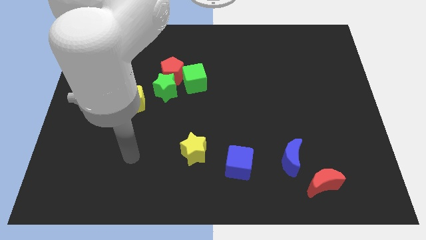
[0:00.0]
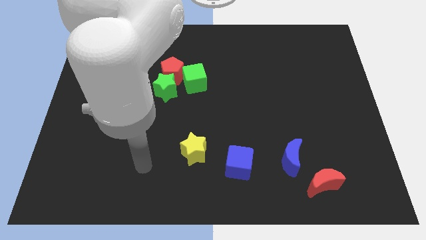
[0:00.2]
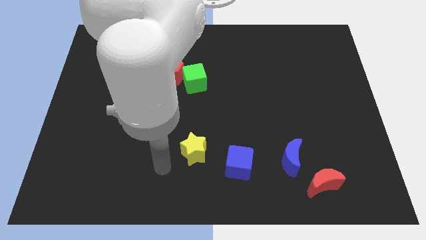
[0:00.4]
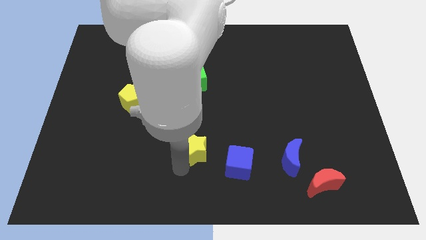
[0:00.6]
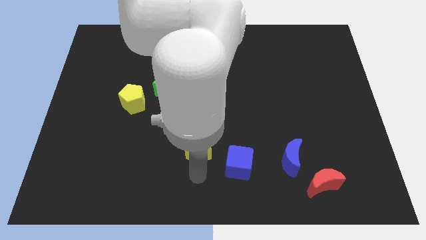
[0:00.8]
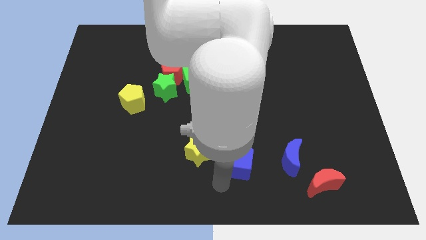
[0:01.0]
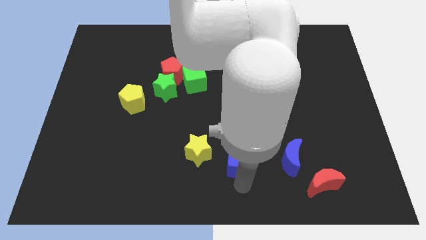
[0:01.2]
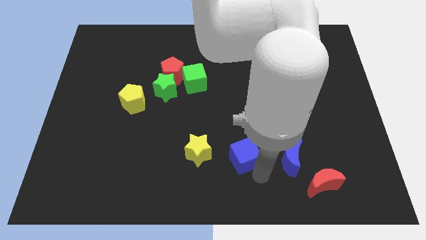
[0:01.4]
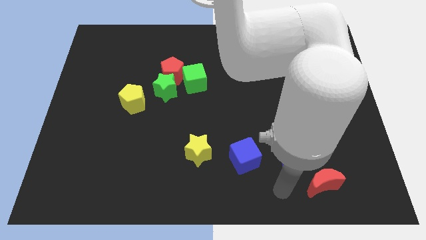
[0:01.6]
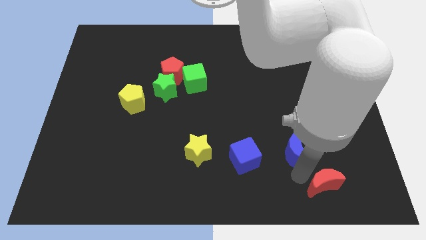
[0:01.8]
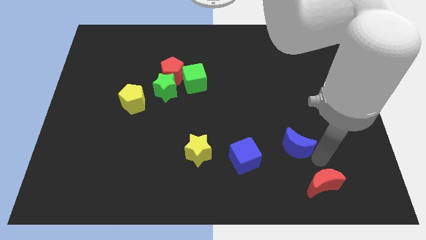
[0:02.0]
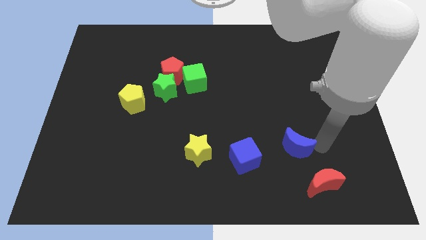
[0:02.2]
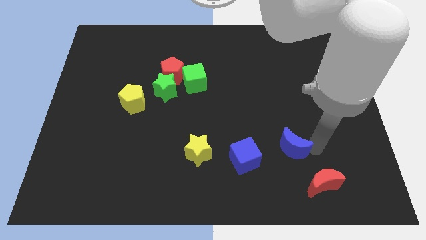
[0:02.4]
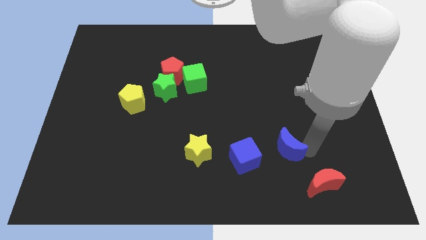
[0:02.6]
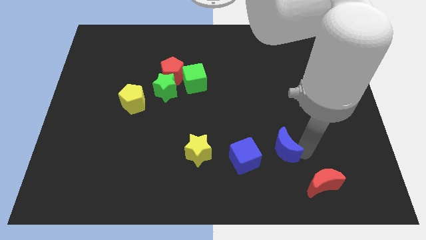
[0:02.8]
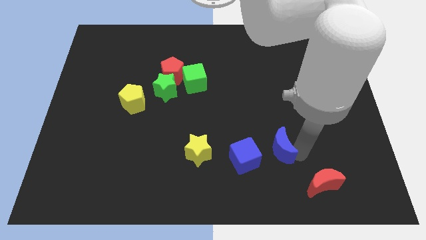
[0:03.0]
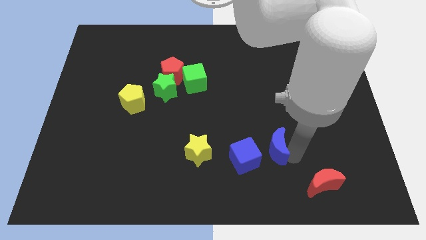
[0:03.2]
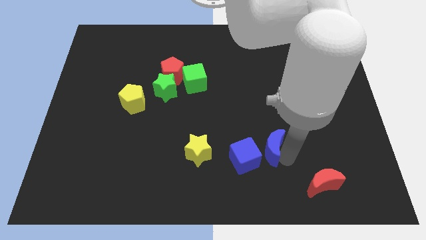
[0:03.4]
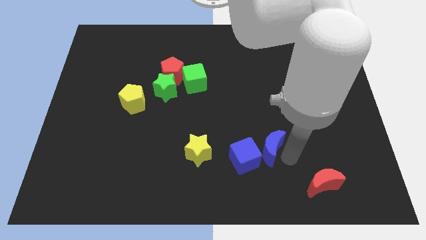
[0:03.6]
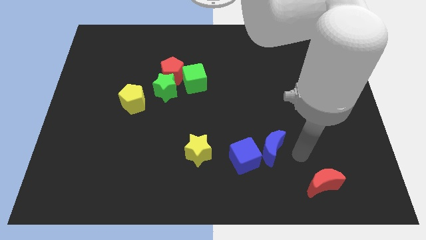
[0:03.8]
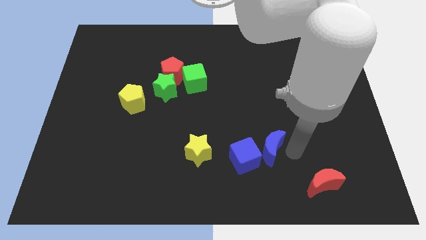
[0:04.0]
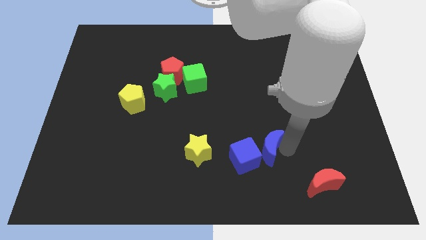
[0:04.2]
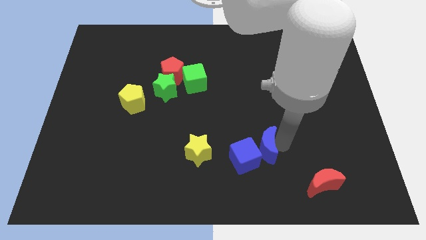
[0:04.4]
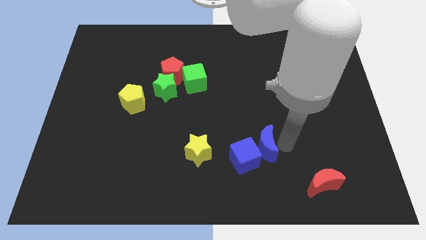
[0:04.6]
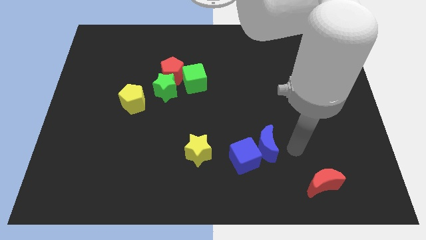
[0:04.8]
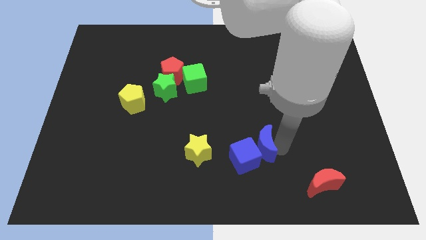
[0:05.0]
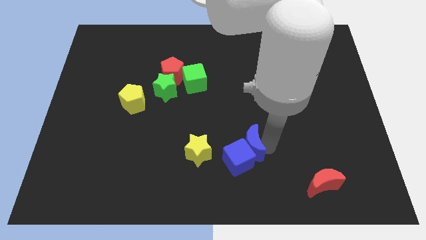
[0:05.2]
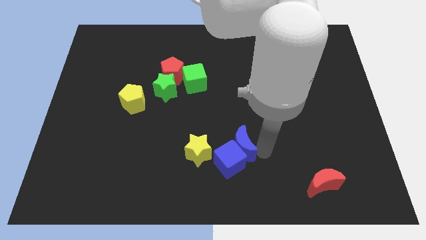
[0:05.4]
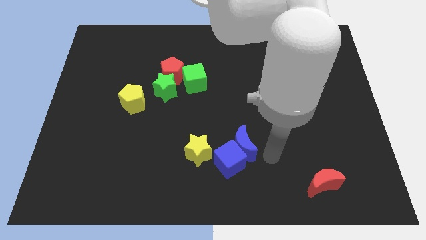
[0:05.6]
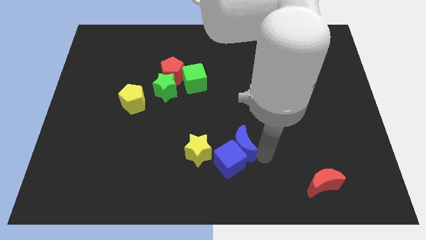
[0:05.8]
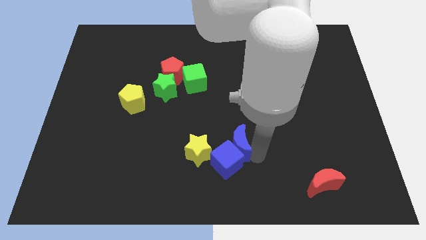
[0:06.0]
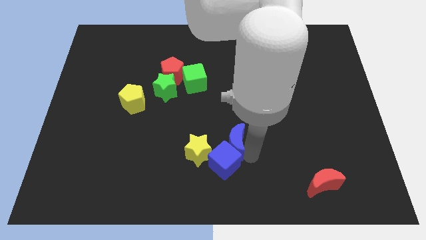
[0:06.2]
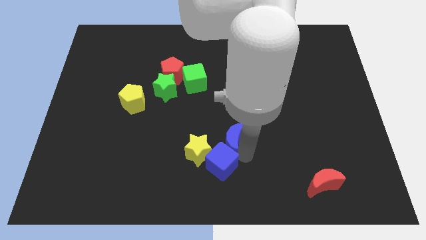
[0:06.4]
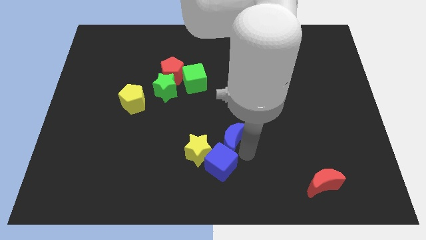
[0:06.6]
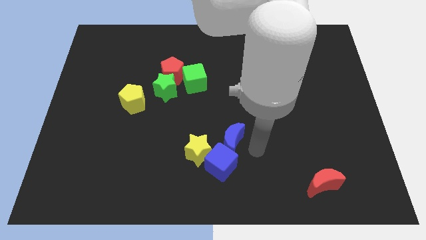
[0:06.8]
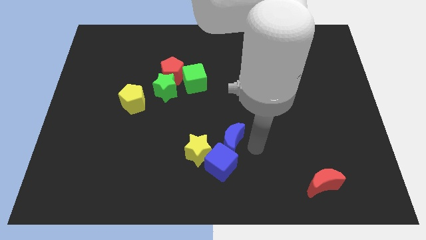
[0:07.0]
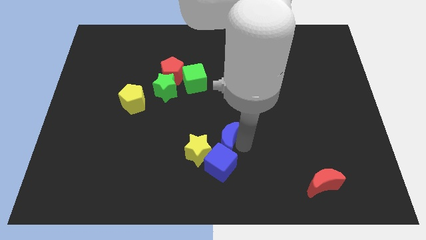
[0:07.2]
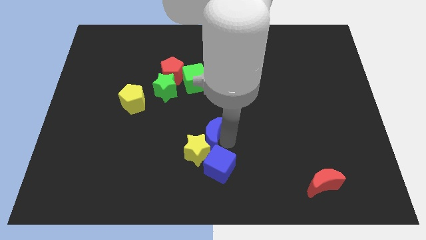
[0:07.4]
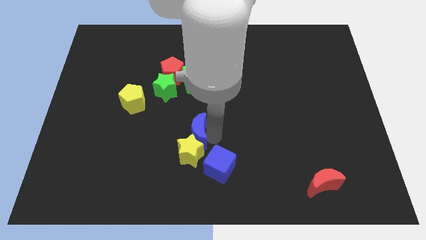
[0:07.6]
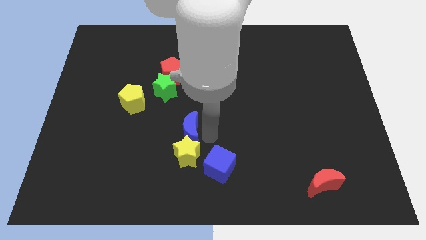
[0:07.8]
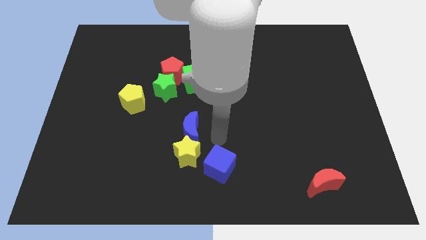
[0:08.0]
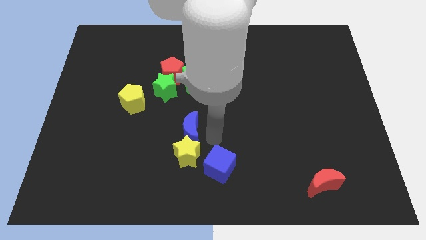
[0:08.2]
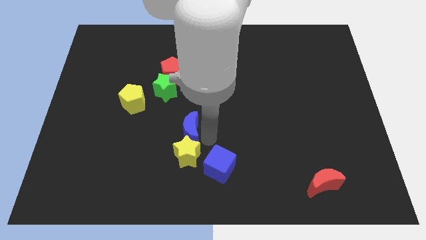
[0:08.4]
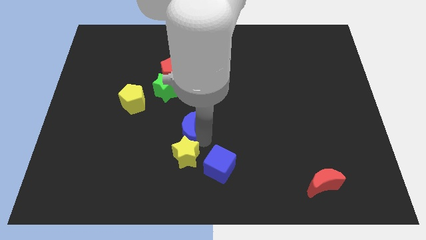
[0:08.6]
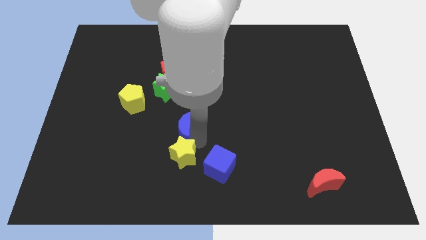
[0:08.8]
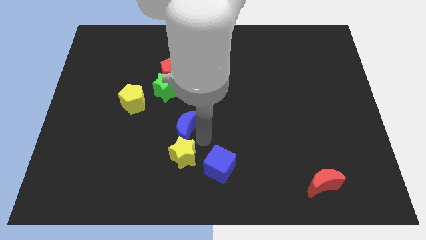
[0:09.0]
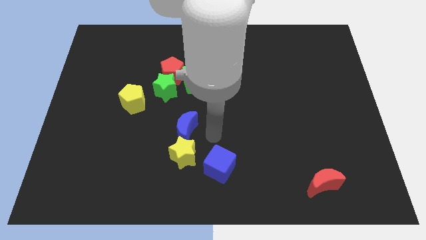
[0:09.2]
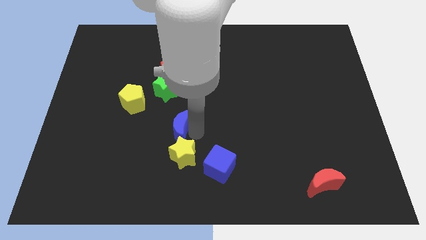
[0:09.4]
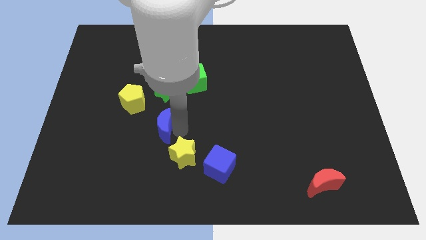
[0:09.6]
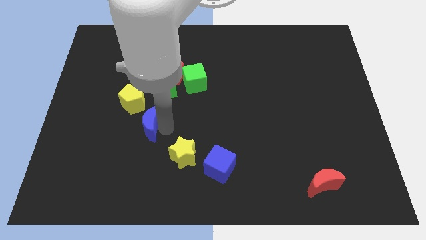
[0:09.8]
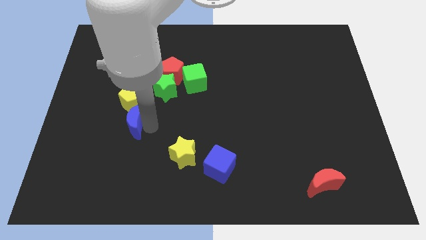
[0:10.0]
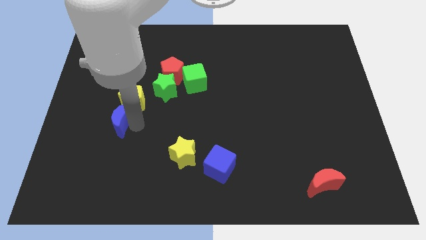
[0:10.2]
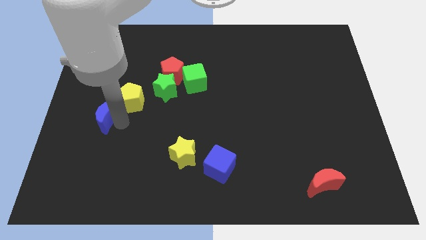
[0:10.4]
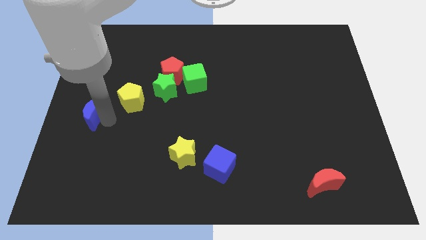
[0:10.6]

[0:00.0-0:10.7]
move the blue moon to the left side of the board

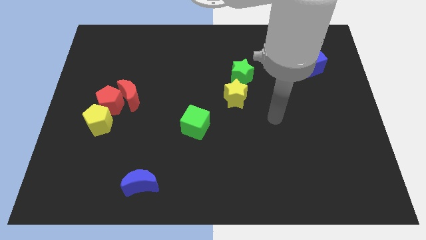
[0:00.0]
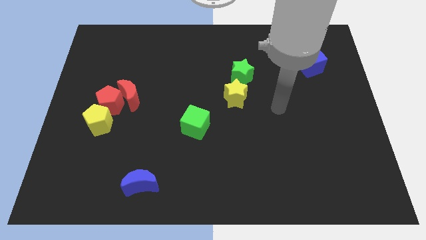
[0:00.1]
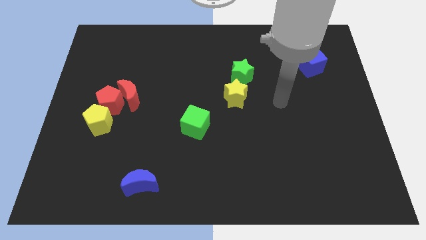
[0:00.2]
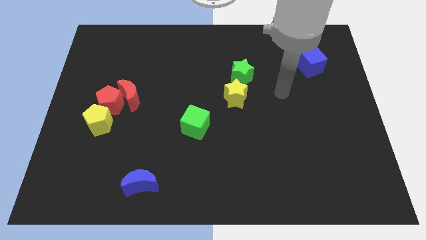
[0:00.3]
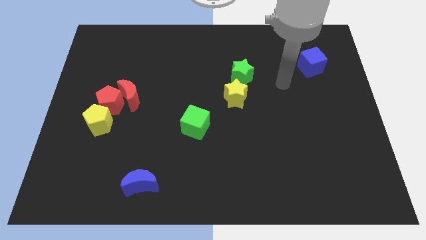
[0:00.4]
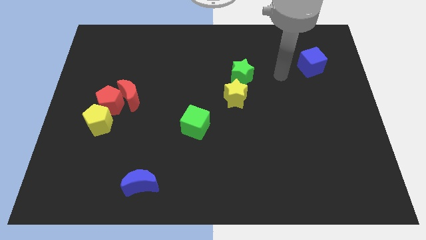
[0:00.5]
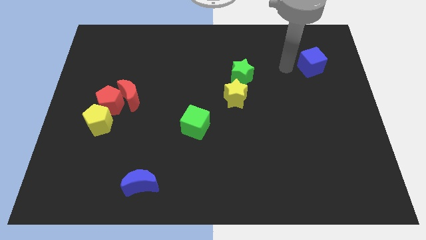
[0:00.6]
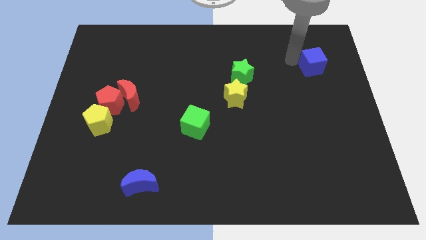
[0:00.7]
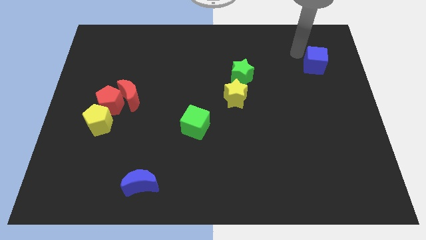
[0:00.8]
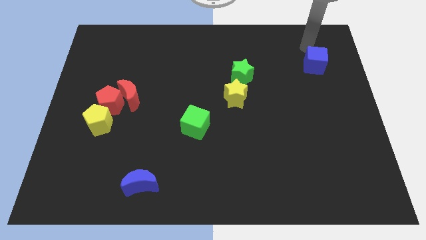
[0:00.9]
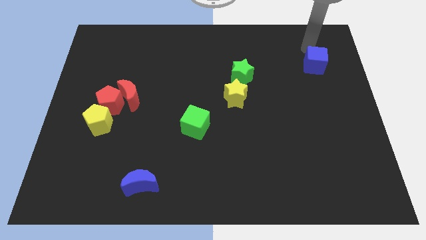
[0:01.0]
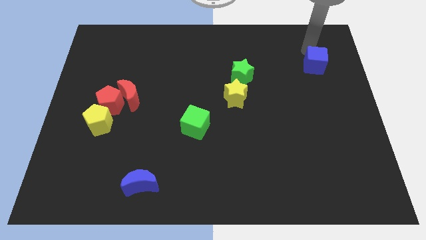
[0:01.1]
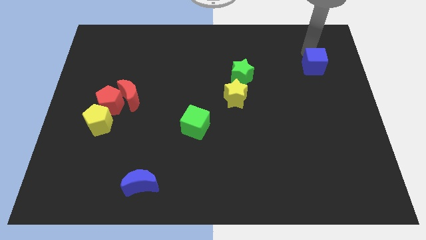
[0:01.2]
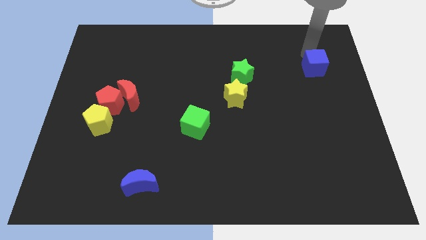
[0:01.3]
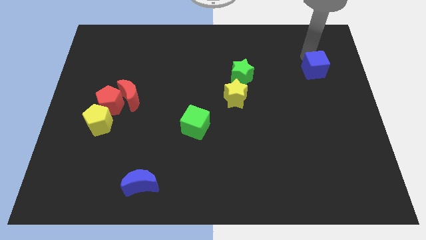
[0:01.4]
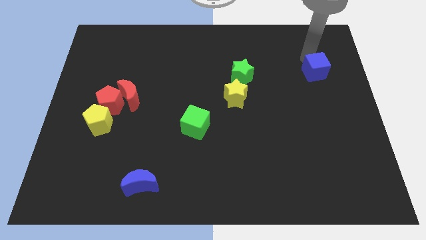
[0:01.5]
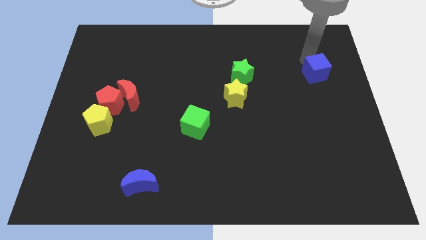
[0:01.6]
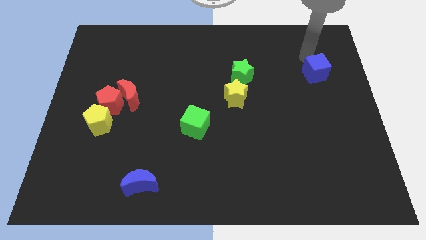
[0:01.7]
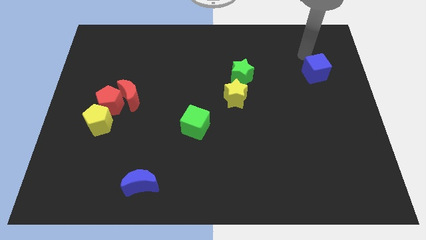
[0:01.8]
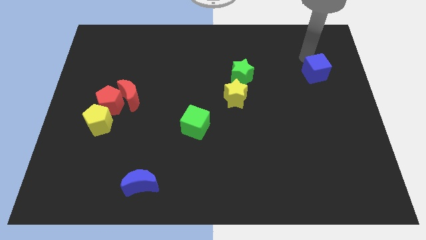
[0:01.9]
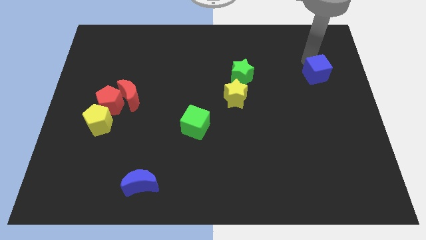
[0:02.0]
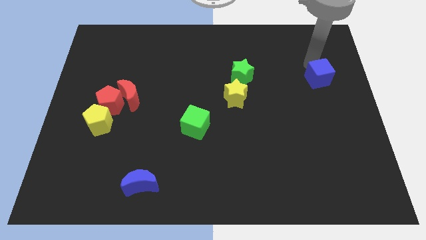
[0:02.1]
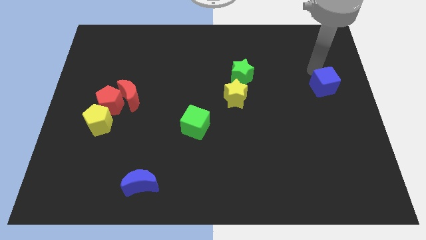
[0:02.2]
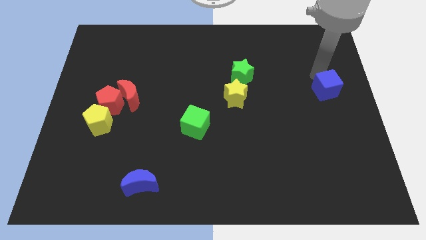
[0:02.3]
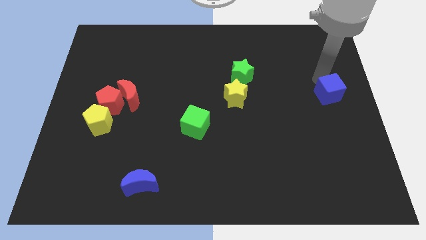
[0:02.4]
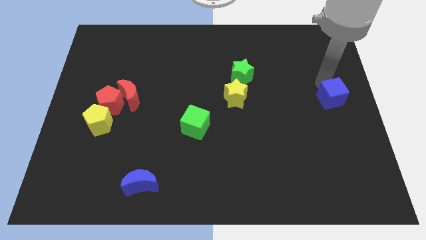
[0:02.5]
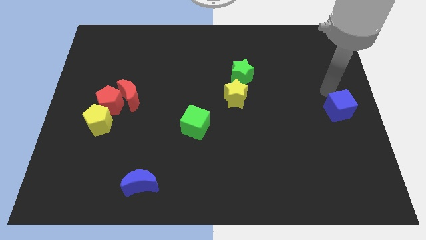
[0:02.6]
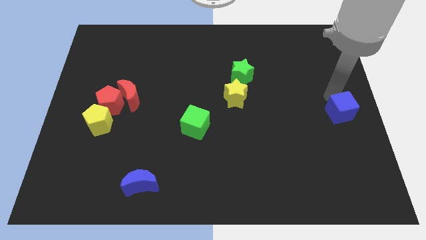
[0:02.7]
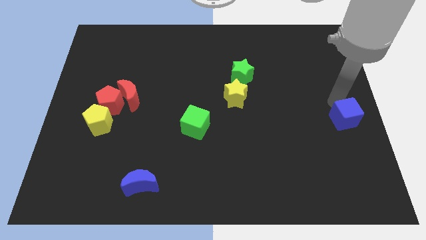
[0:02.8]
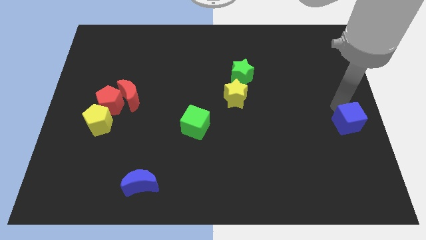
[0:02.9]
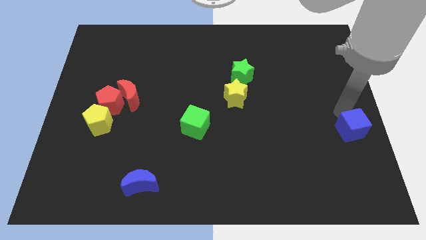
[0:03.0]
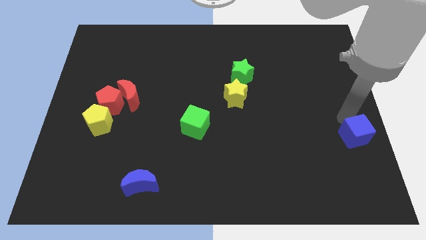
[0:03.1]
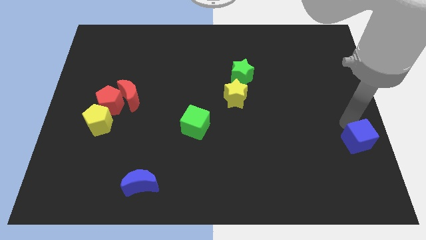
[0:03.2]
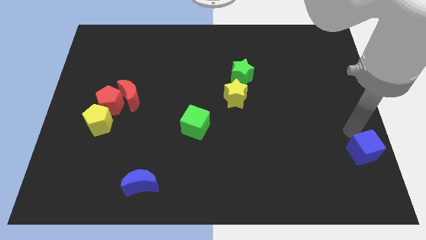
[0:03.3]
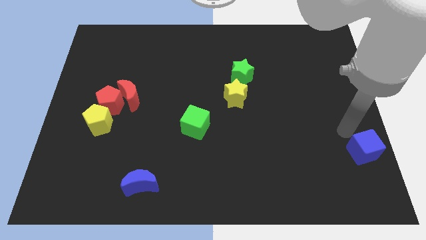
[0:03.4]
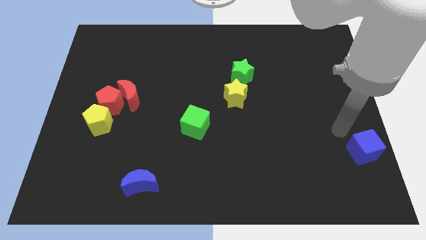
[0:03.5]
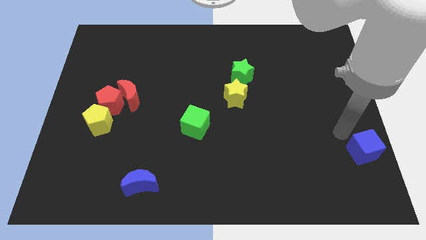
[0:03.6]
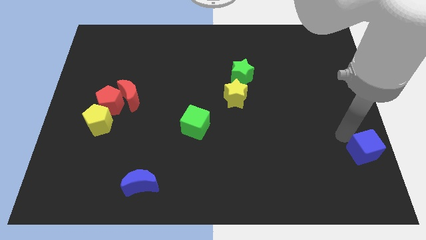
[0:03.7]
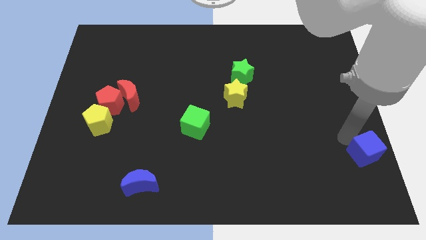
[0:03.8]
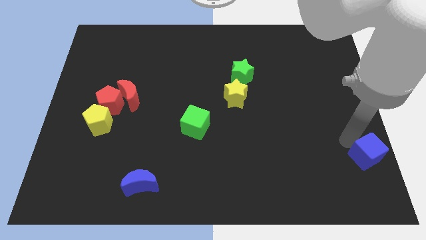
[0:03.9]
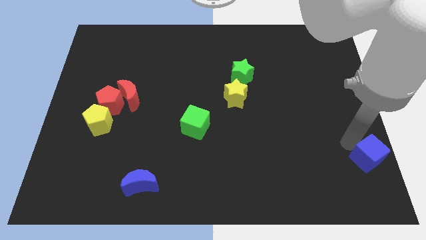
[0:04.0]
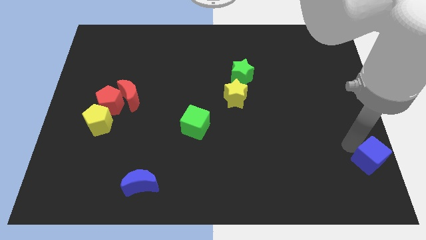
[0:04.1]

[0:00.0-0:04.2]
slide the blue cube to the bottom right corner
